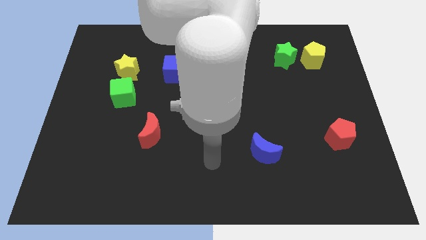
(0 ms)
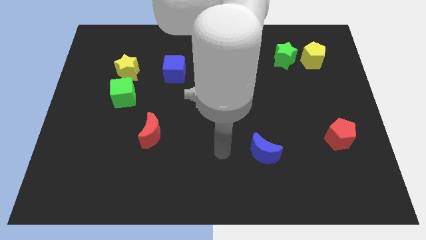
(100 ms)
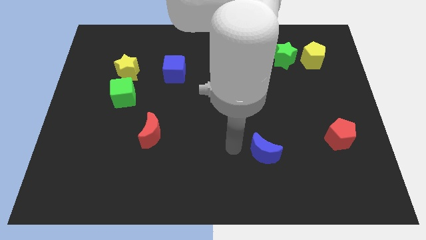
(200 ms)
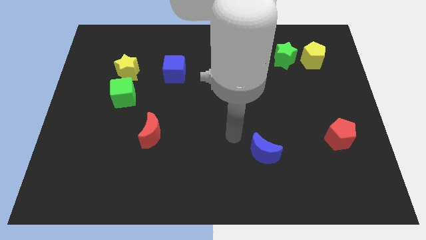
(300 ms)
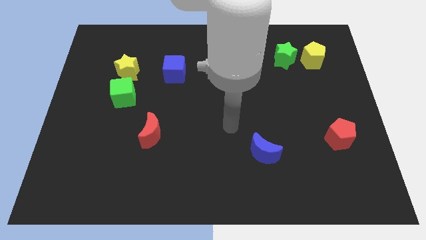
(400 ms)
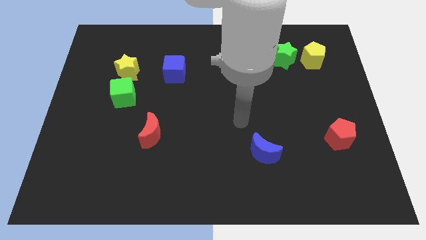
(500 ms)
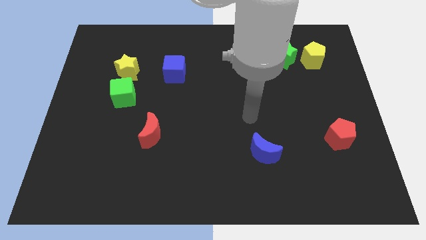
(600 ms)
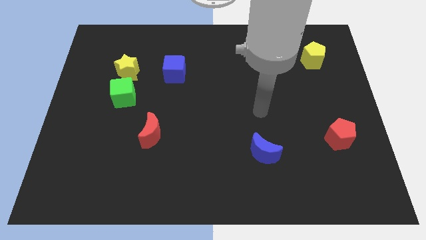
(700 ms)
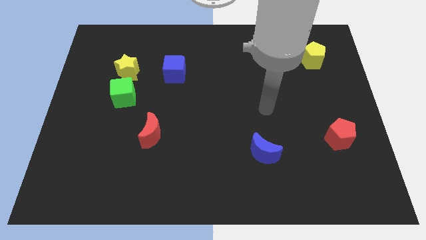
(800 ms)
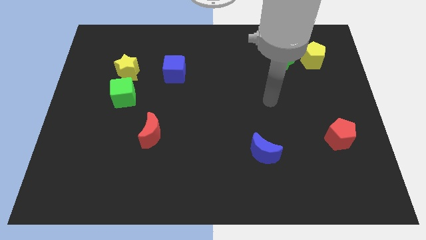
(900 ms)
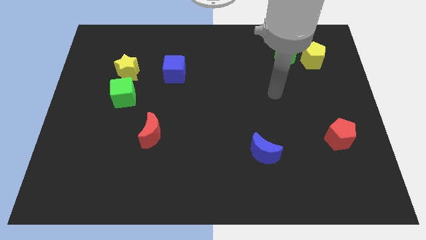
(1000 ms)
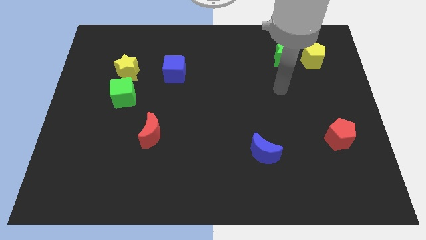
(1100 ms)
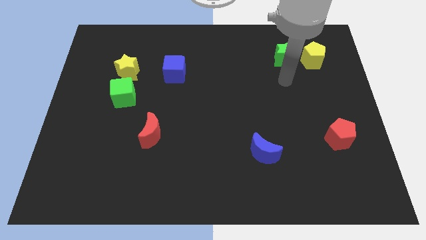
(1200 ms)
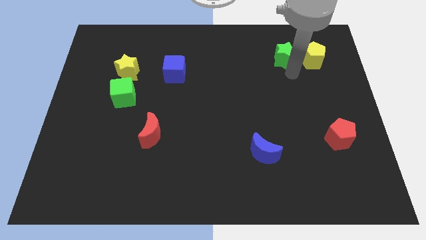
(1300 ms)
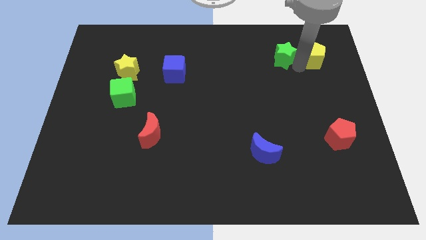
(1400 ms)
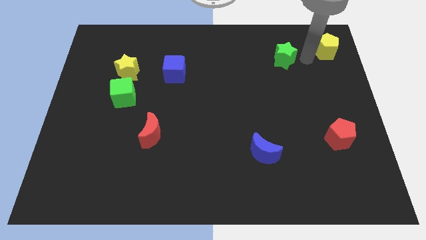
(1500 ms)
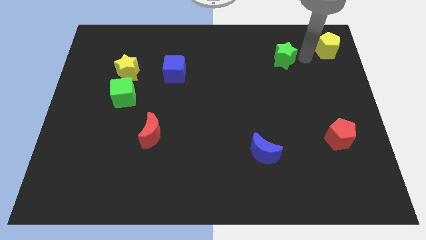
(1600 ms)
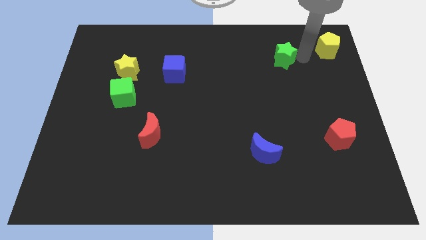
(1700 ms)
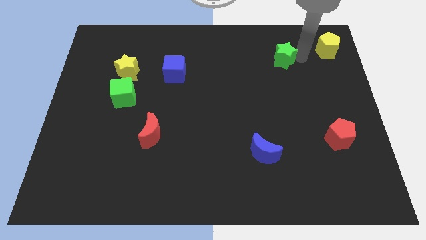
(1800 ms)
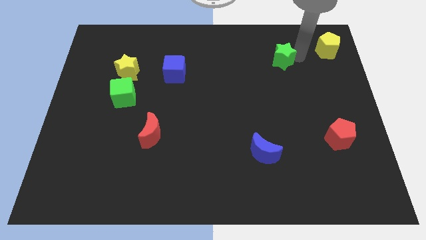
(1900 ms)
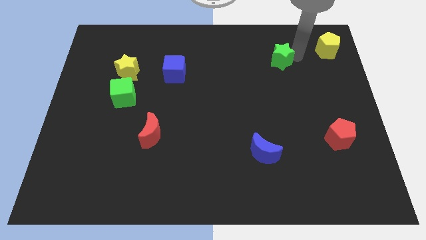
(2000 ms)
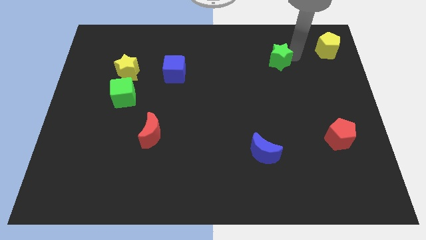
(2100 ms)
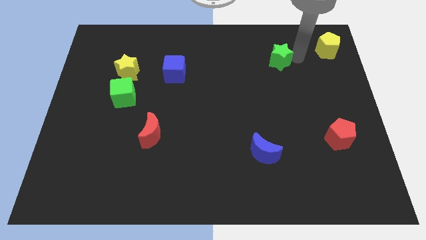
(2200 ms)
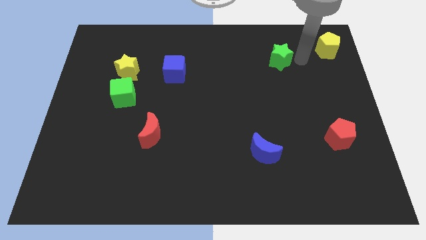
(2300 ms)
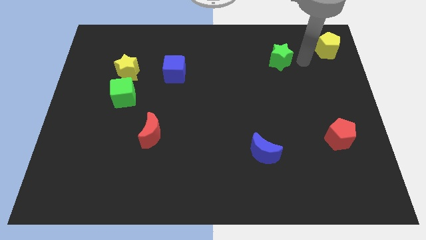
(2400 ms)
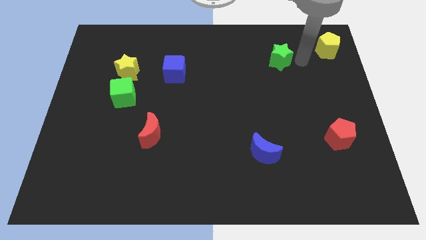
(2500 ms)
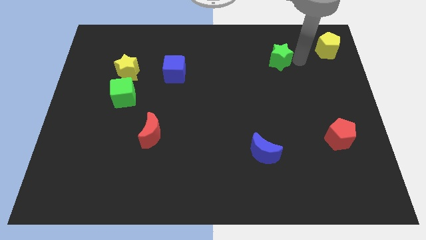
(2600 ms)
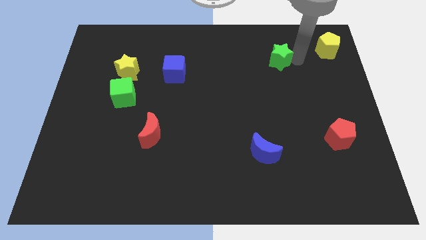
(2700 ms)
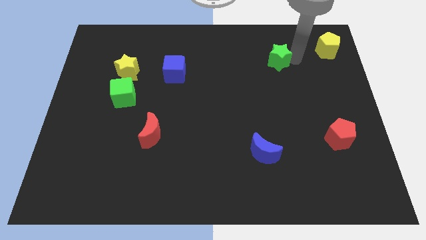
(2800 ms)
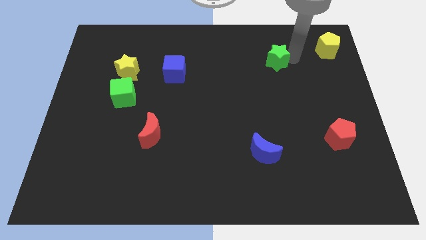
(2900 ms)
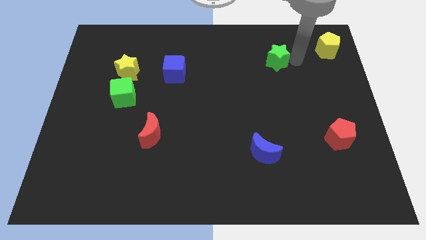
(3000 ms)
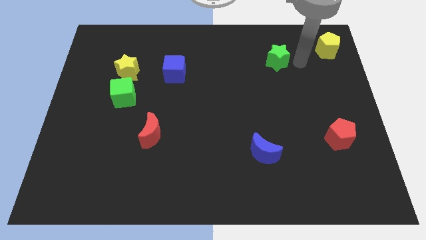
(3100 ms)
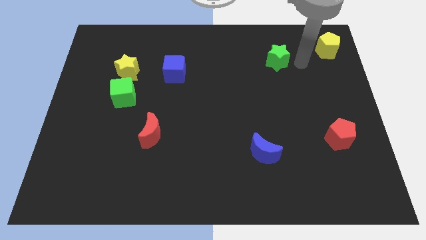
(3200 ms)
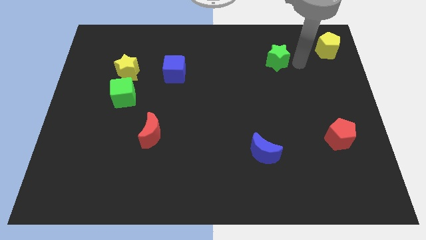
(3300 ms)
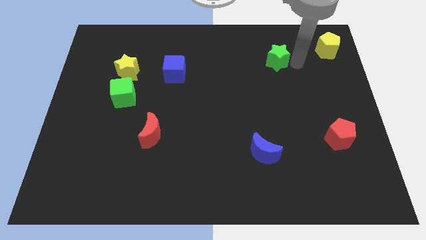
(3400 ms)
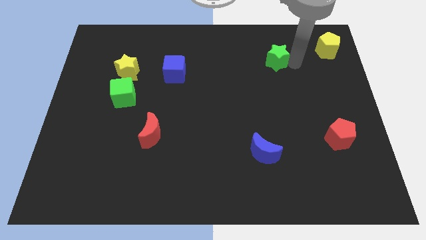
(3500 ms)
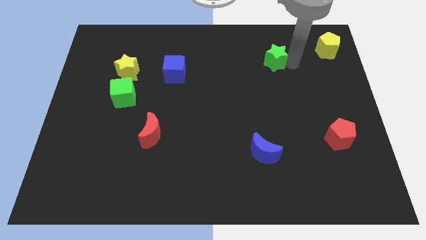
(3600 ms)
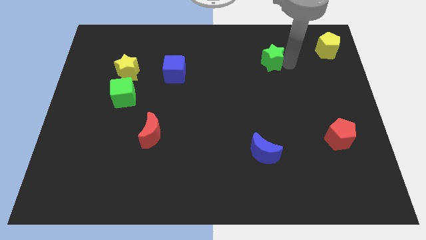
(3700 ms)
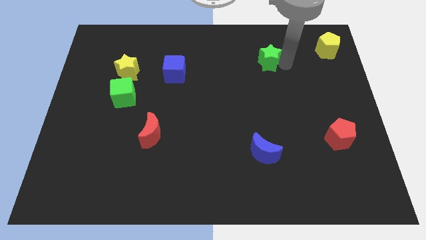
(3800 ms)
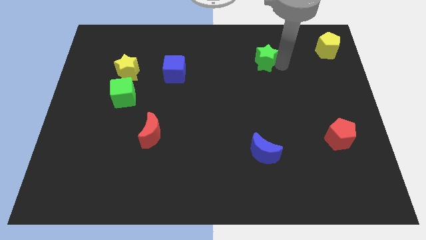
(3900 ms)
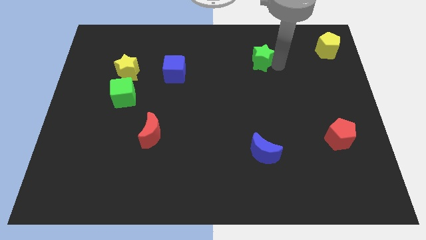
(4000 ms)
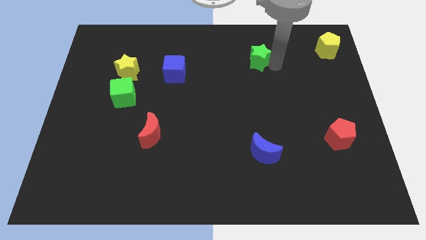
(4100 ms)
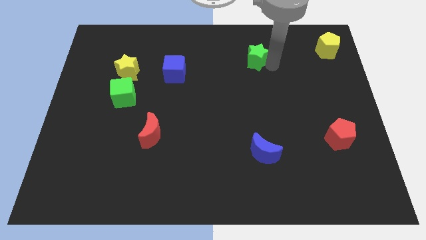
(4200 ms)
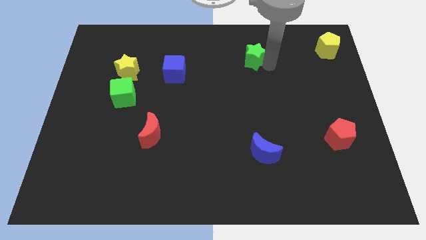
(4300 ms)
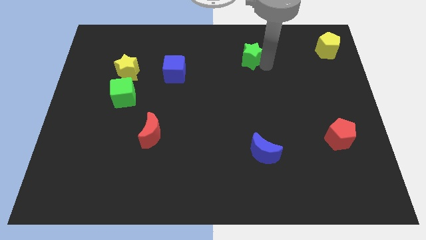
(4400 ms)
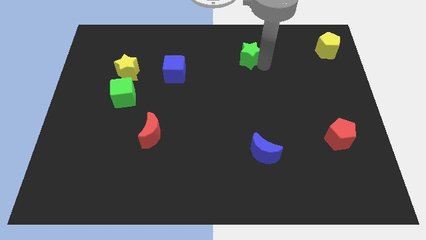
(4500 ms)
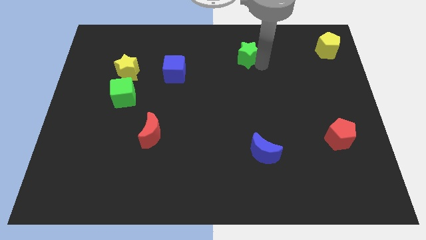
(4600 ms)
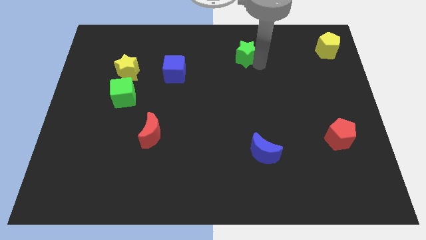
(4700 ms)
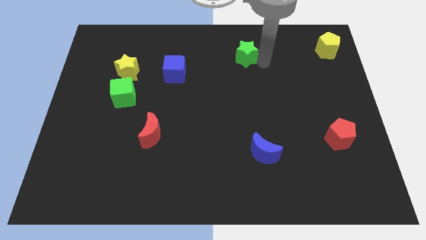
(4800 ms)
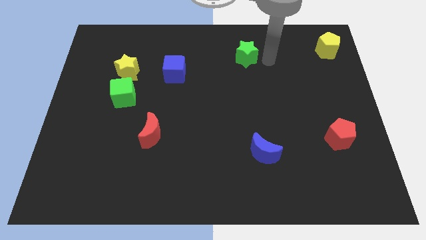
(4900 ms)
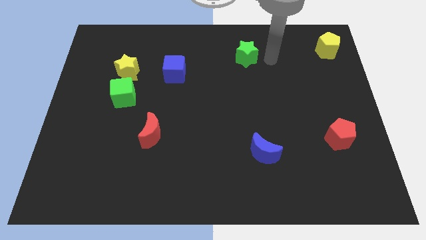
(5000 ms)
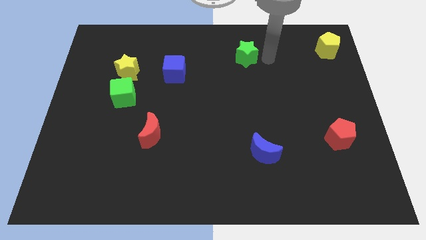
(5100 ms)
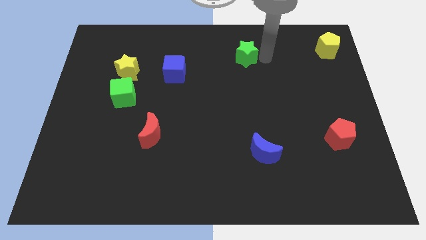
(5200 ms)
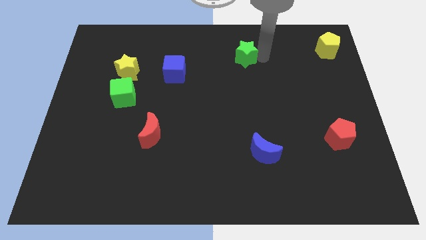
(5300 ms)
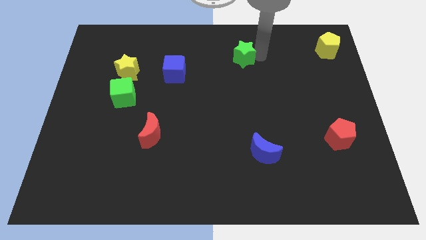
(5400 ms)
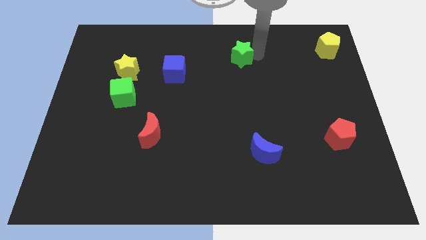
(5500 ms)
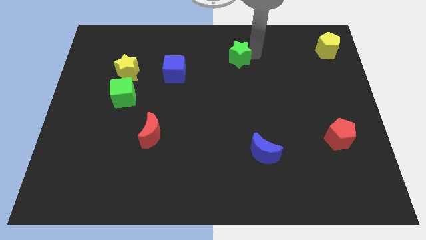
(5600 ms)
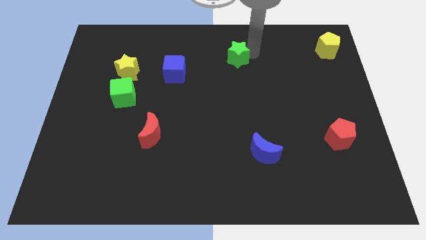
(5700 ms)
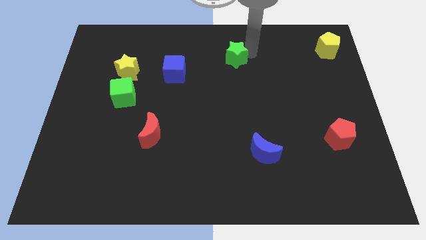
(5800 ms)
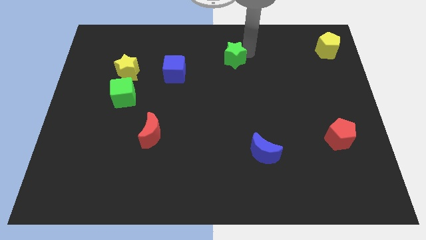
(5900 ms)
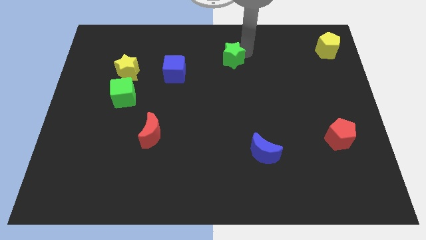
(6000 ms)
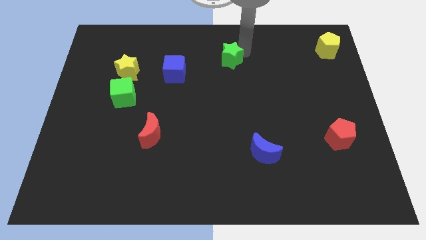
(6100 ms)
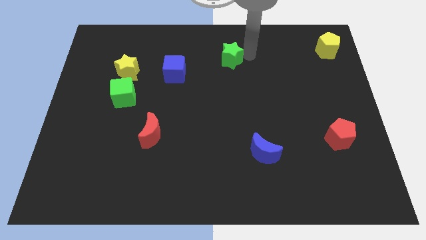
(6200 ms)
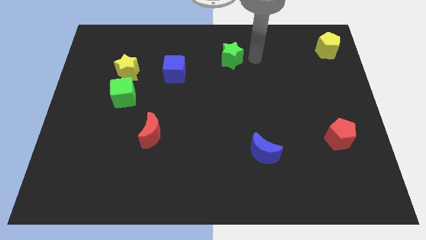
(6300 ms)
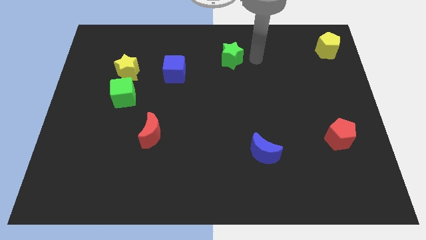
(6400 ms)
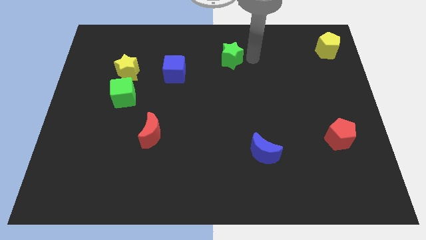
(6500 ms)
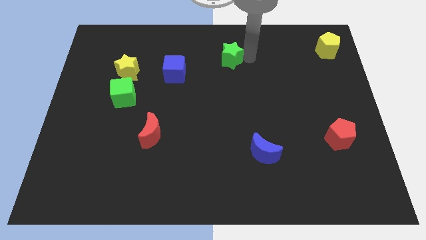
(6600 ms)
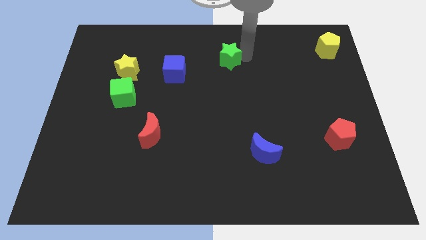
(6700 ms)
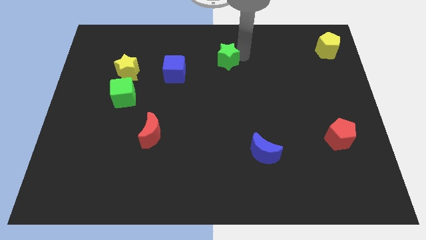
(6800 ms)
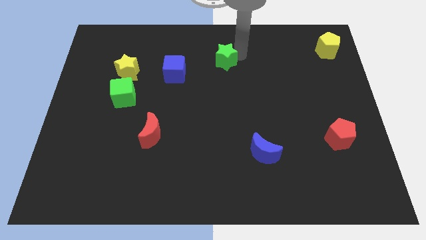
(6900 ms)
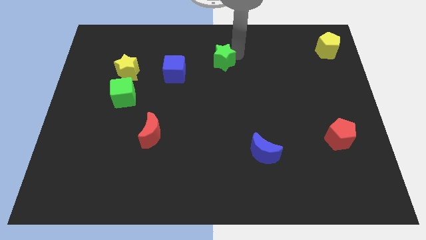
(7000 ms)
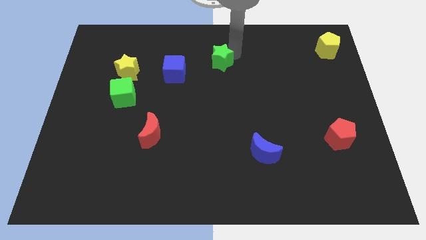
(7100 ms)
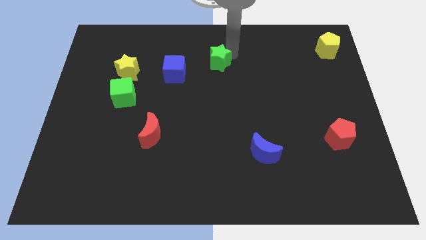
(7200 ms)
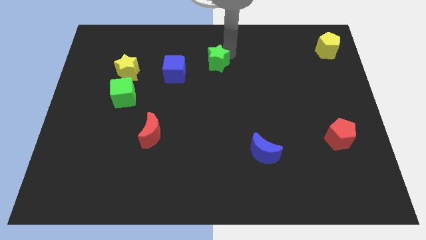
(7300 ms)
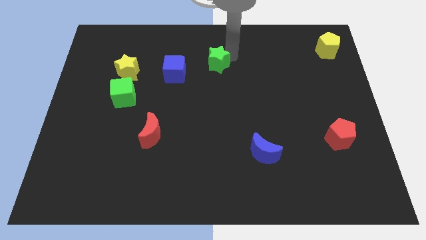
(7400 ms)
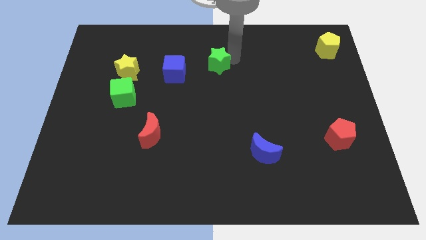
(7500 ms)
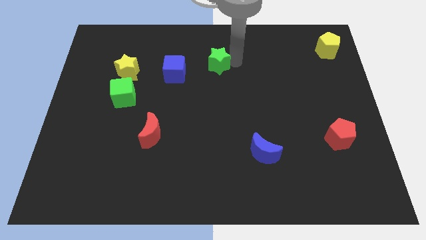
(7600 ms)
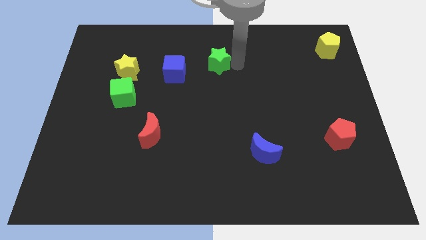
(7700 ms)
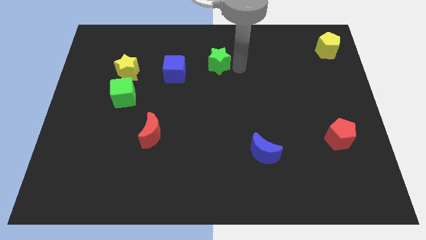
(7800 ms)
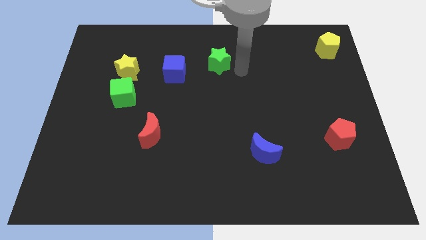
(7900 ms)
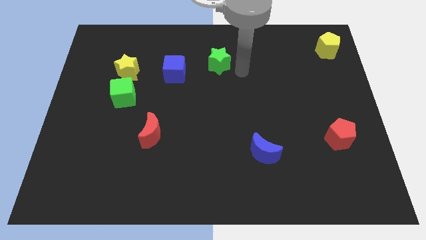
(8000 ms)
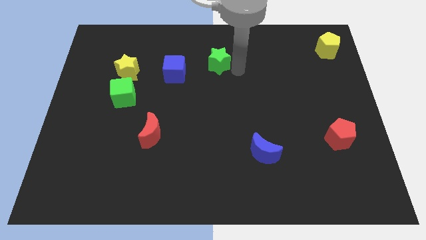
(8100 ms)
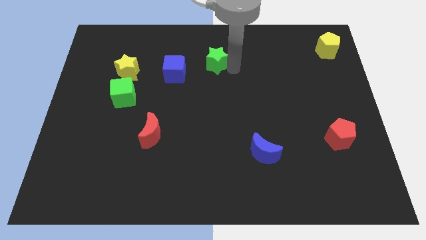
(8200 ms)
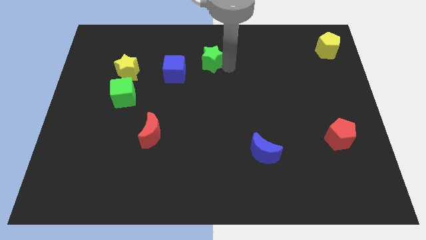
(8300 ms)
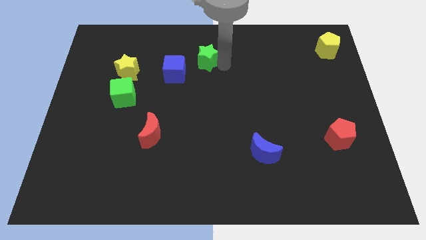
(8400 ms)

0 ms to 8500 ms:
push the green star left
